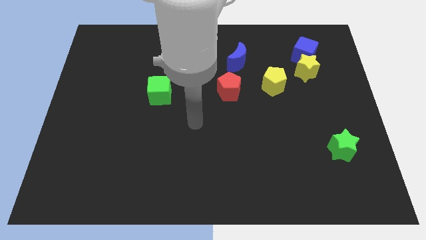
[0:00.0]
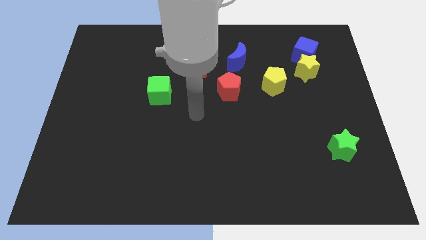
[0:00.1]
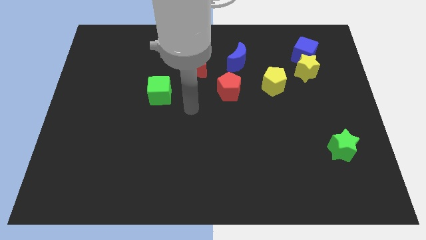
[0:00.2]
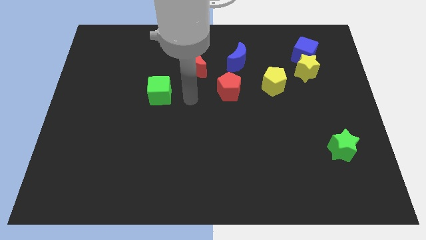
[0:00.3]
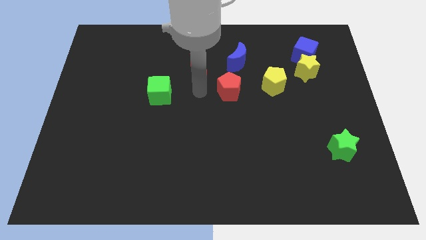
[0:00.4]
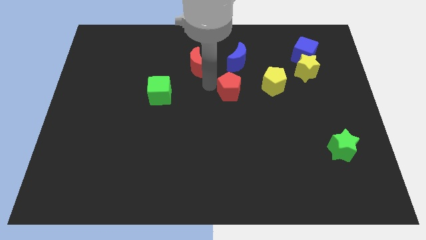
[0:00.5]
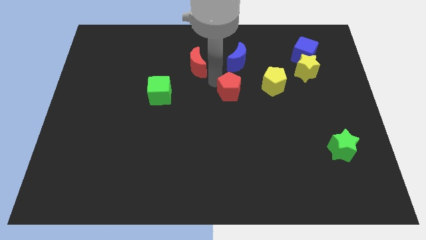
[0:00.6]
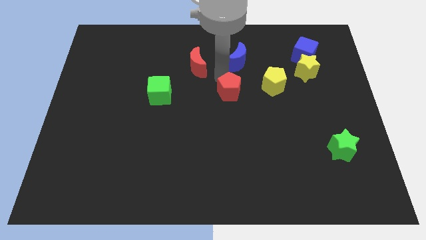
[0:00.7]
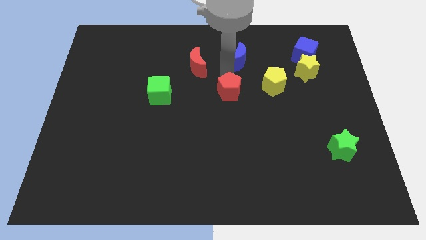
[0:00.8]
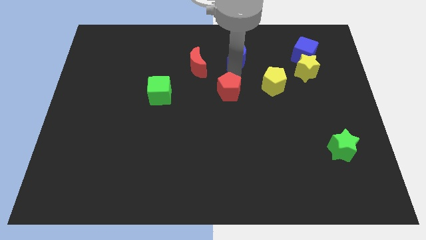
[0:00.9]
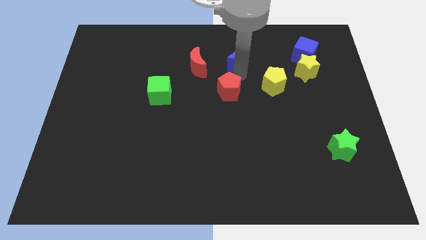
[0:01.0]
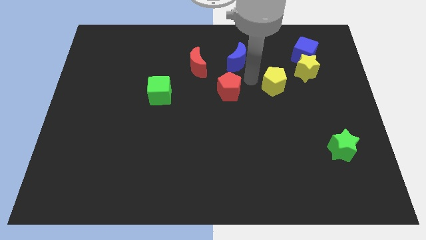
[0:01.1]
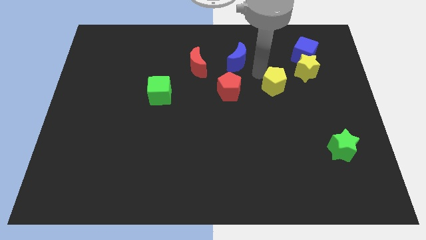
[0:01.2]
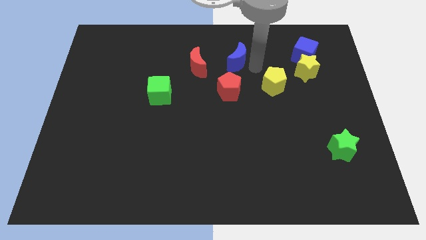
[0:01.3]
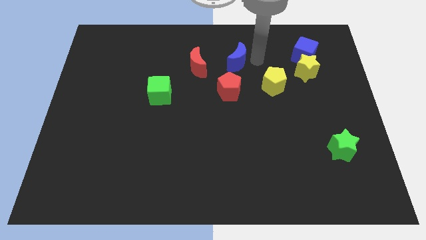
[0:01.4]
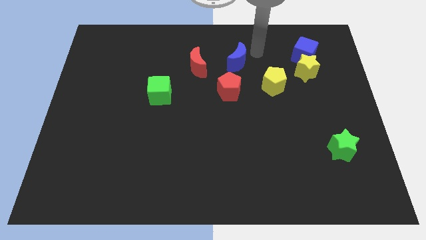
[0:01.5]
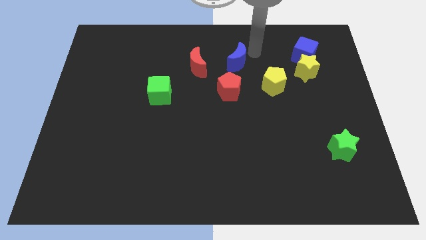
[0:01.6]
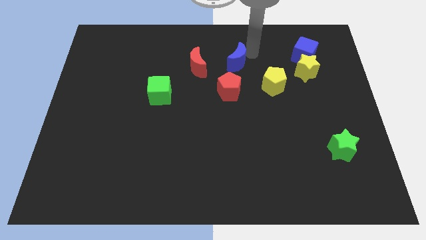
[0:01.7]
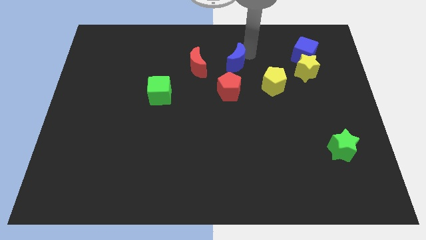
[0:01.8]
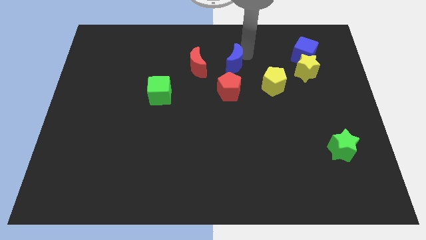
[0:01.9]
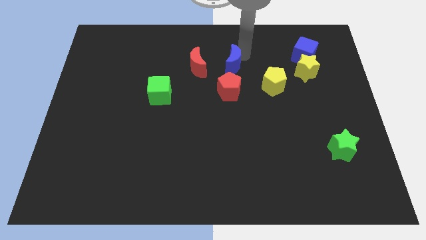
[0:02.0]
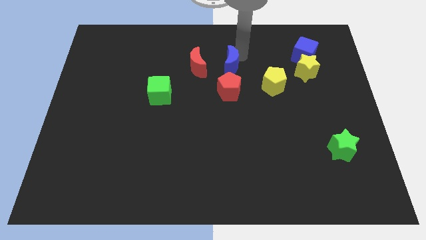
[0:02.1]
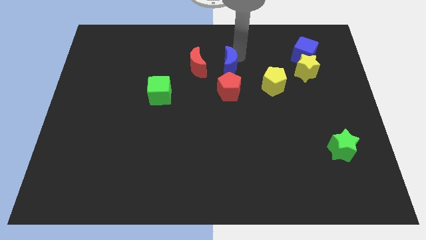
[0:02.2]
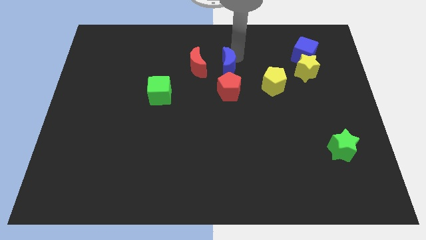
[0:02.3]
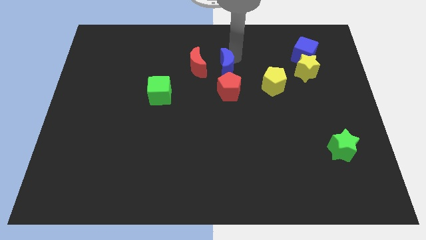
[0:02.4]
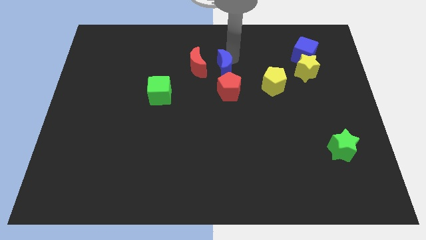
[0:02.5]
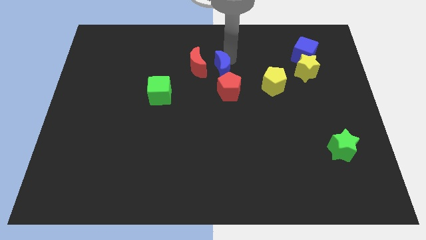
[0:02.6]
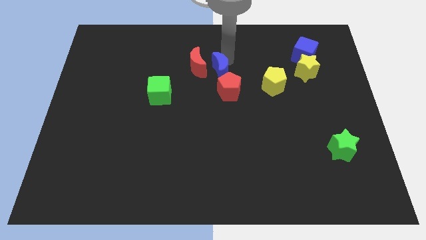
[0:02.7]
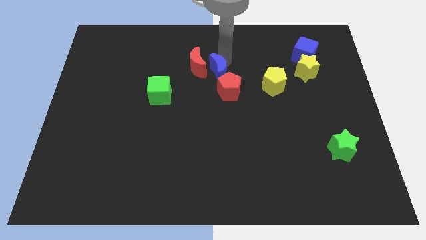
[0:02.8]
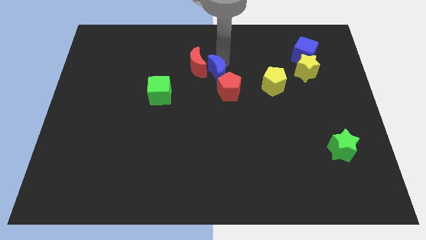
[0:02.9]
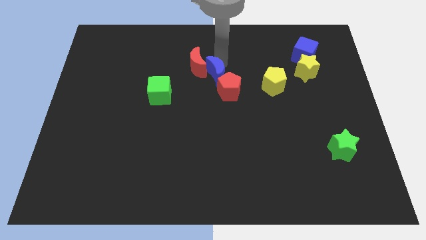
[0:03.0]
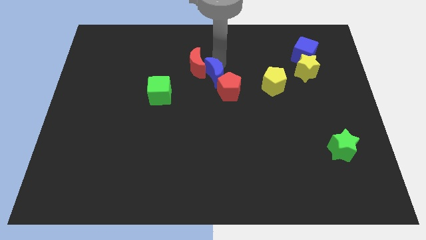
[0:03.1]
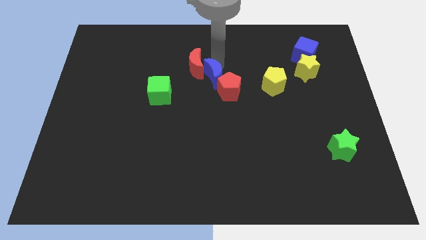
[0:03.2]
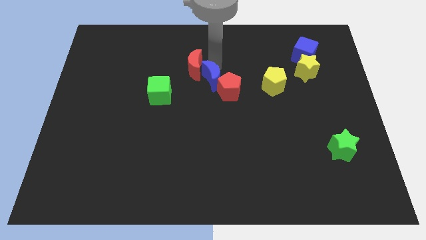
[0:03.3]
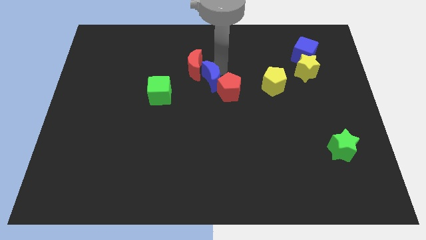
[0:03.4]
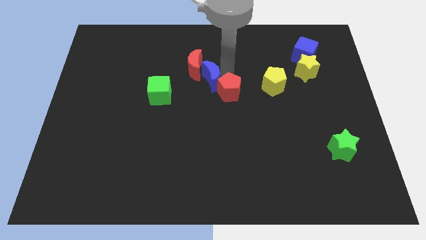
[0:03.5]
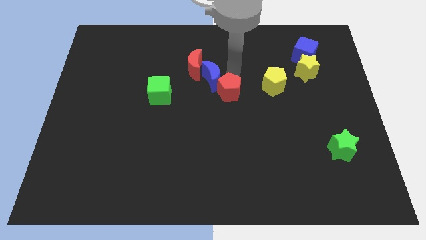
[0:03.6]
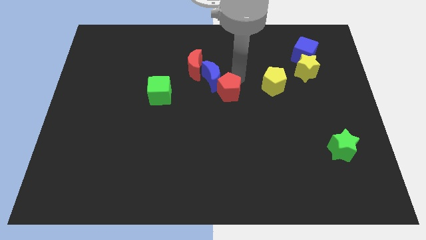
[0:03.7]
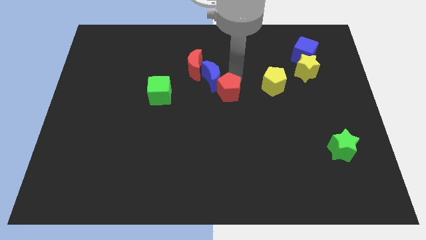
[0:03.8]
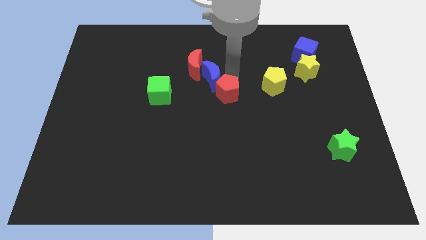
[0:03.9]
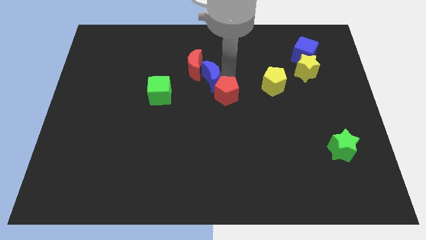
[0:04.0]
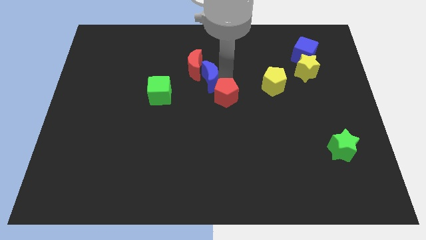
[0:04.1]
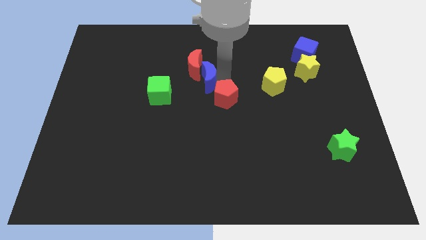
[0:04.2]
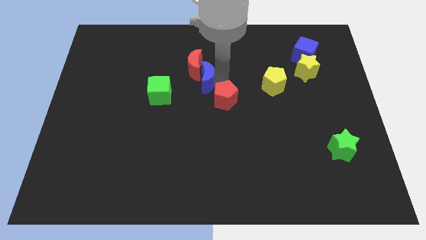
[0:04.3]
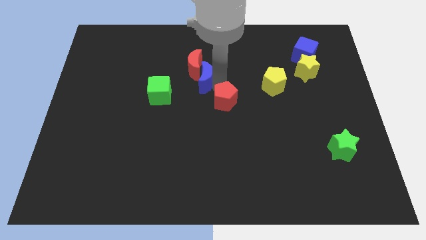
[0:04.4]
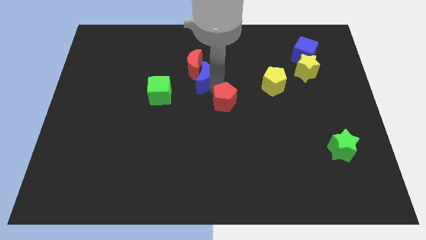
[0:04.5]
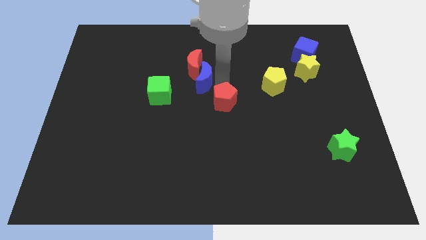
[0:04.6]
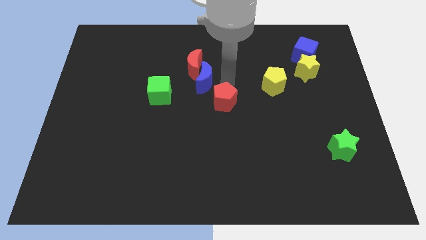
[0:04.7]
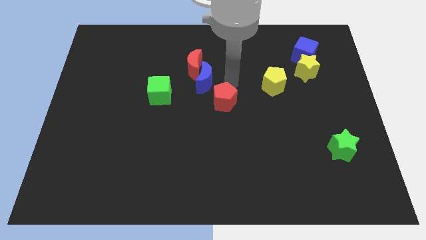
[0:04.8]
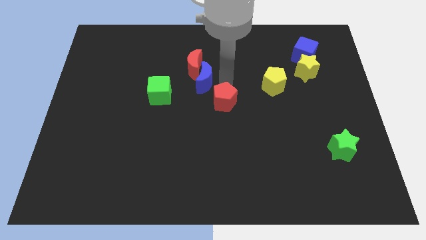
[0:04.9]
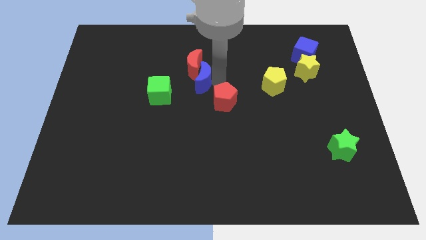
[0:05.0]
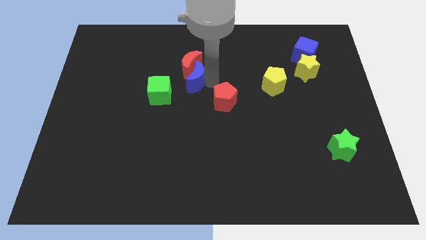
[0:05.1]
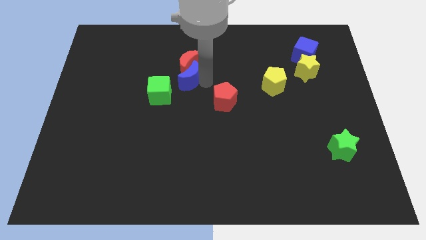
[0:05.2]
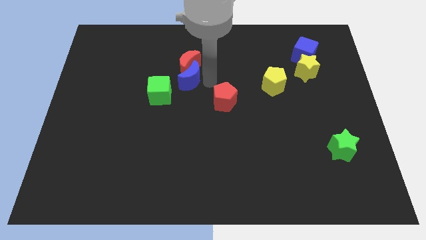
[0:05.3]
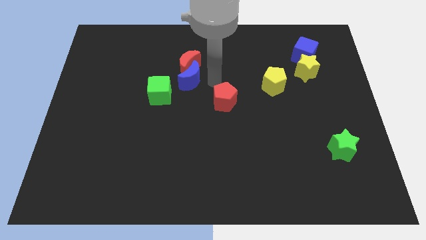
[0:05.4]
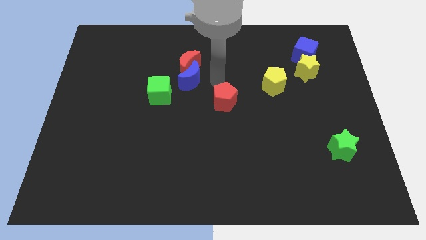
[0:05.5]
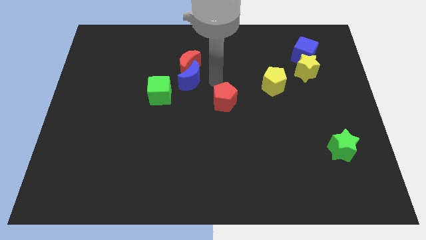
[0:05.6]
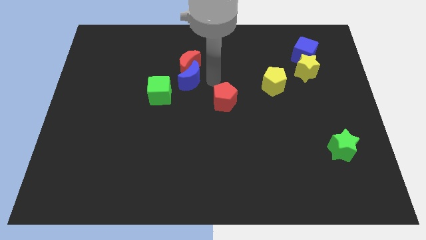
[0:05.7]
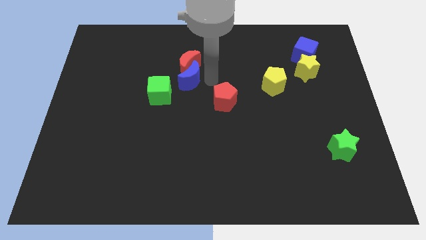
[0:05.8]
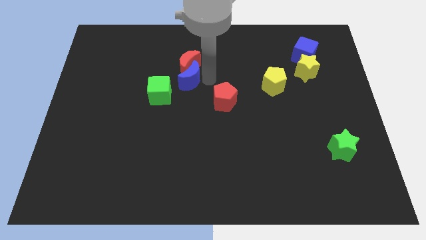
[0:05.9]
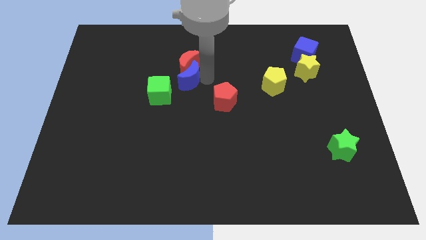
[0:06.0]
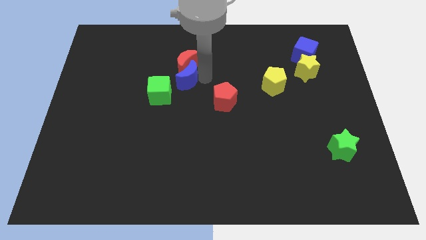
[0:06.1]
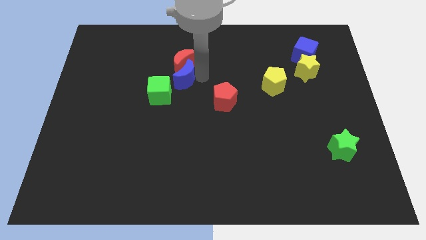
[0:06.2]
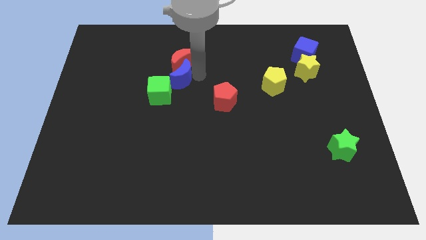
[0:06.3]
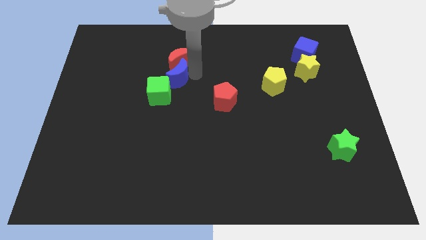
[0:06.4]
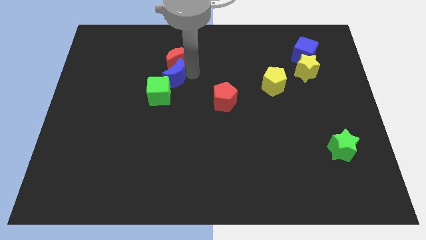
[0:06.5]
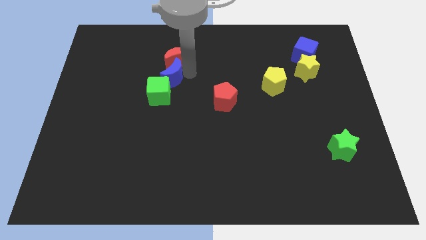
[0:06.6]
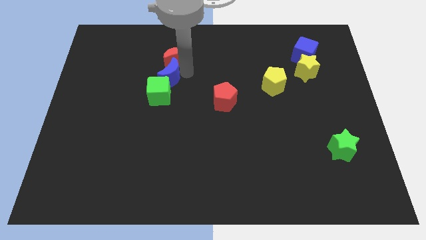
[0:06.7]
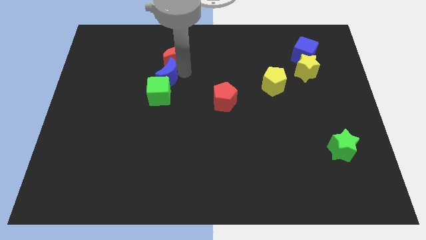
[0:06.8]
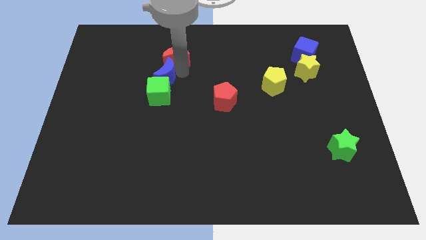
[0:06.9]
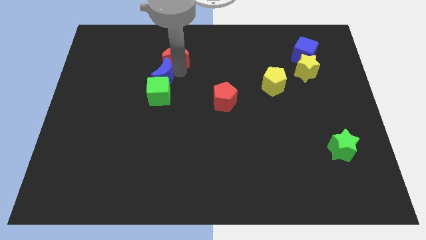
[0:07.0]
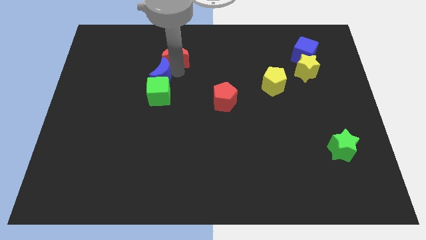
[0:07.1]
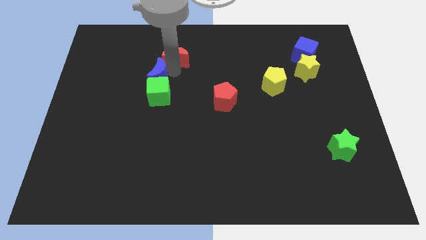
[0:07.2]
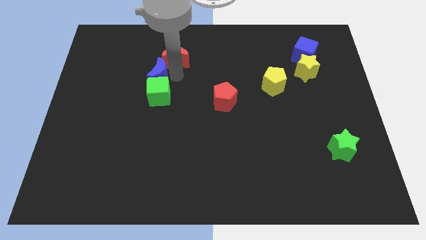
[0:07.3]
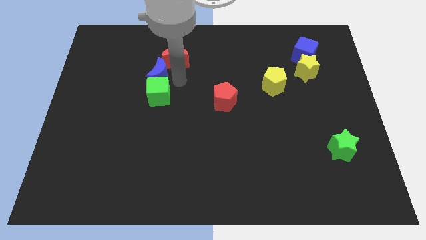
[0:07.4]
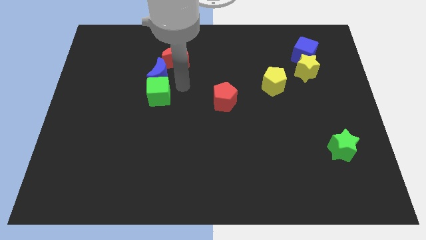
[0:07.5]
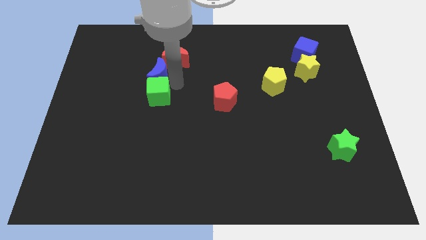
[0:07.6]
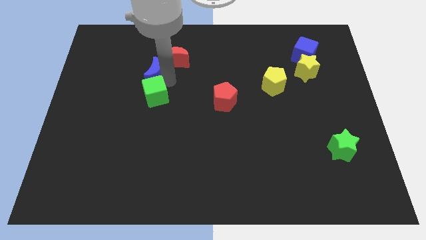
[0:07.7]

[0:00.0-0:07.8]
slide the blue moon to the left

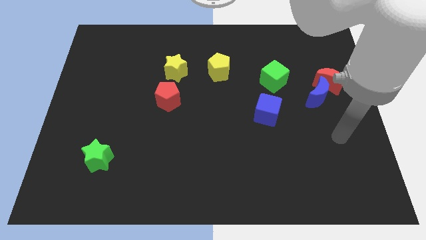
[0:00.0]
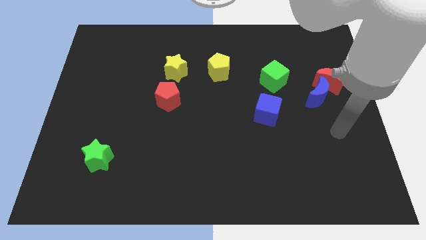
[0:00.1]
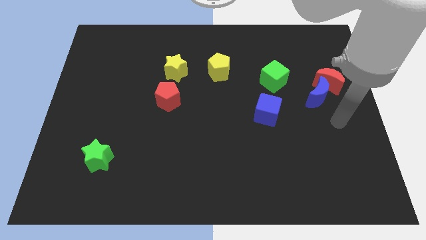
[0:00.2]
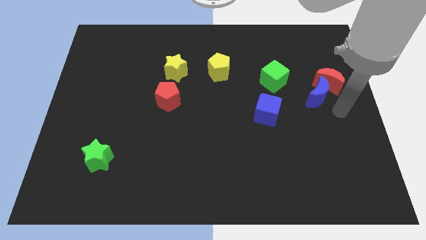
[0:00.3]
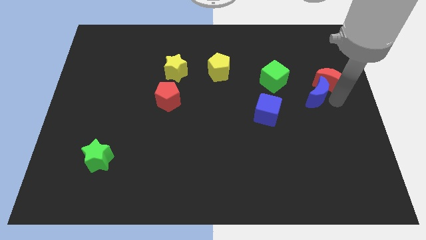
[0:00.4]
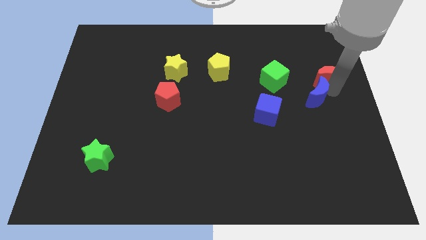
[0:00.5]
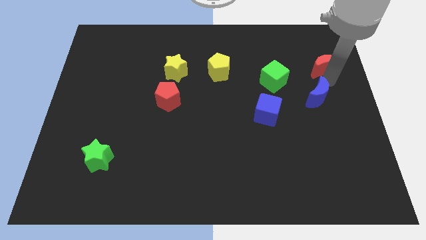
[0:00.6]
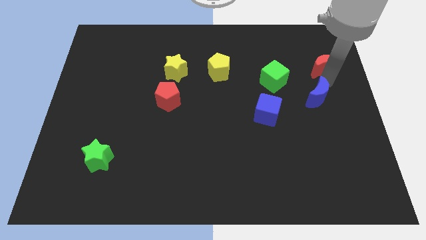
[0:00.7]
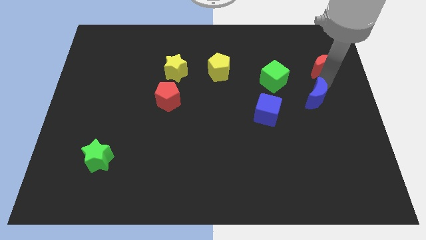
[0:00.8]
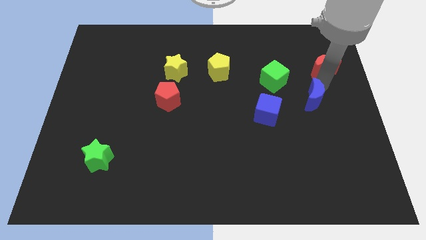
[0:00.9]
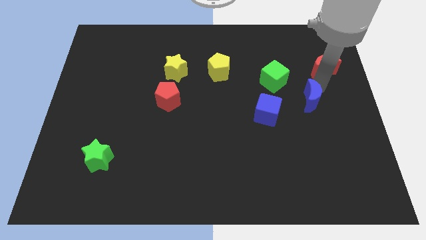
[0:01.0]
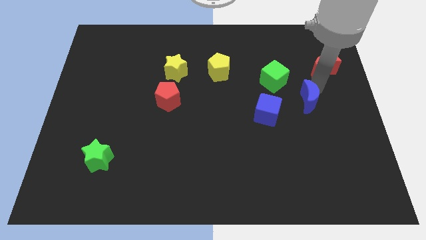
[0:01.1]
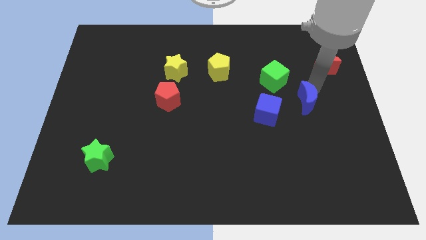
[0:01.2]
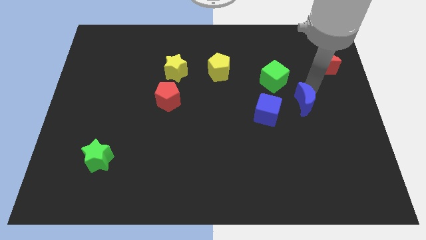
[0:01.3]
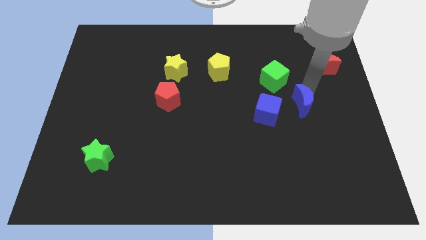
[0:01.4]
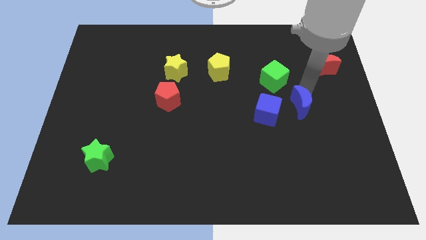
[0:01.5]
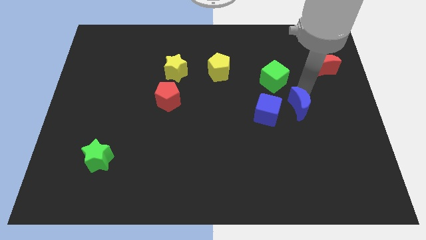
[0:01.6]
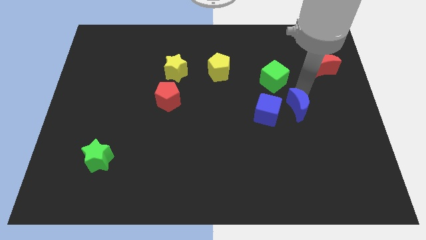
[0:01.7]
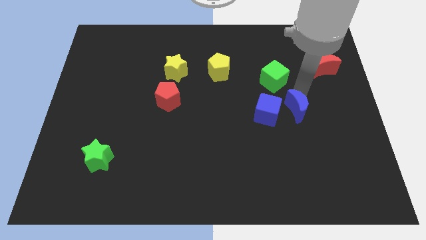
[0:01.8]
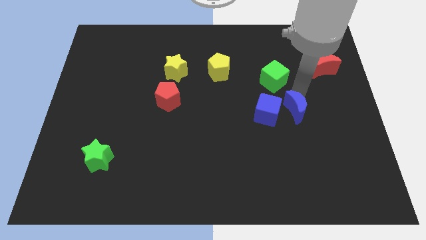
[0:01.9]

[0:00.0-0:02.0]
slightly slide the blue moon diagonally down and left
